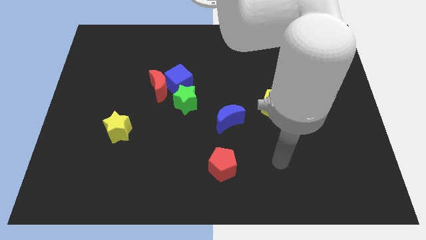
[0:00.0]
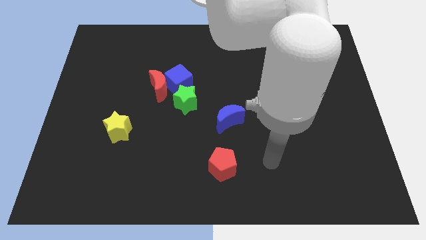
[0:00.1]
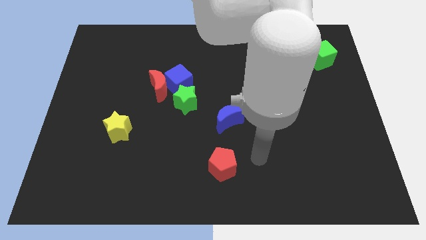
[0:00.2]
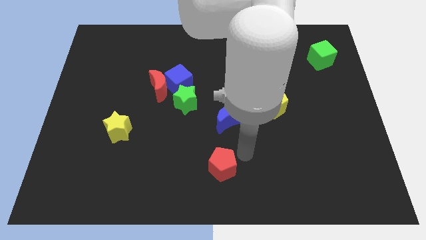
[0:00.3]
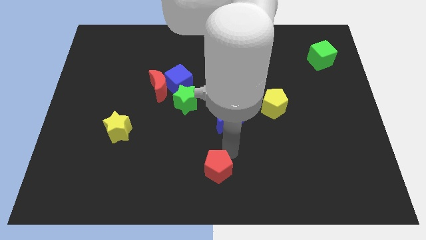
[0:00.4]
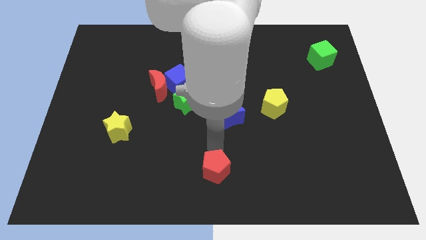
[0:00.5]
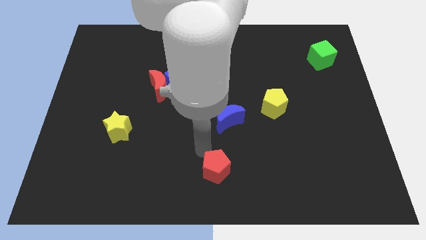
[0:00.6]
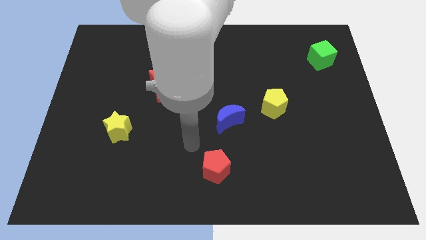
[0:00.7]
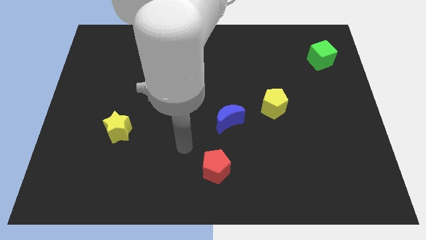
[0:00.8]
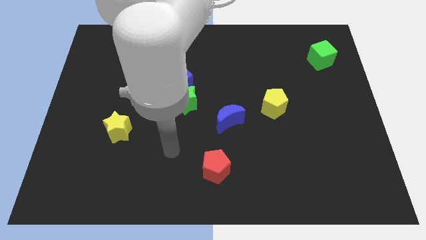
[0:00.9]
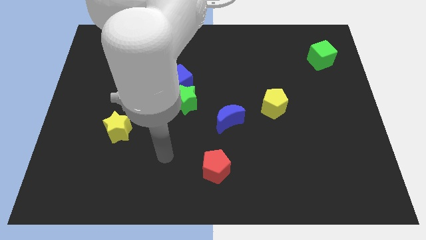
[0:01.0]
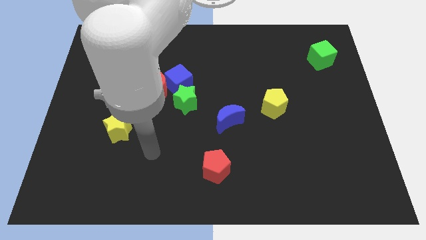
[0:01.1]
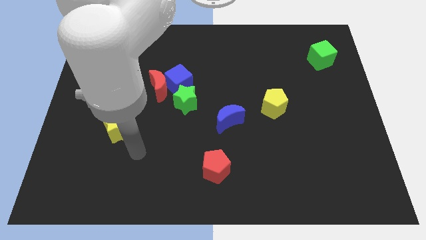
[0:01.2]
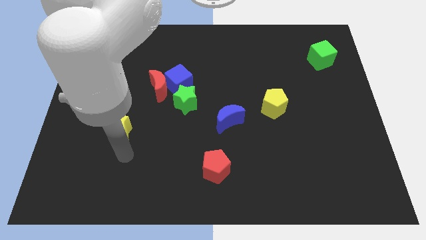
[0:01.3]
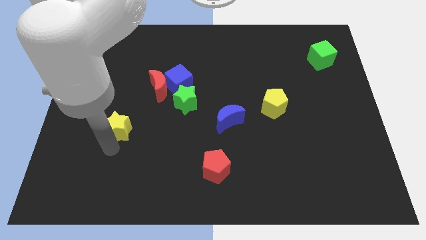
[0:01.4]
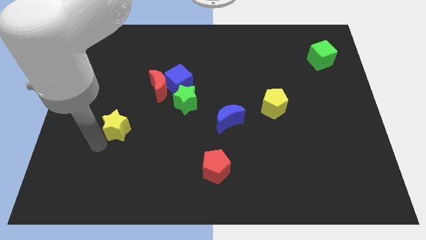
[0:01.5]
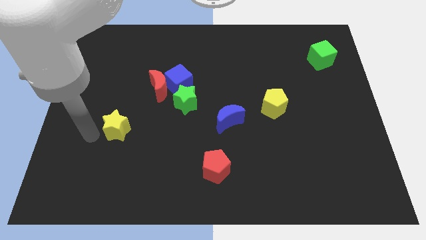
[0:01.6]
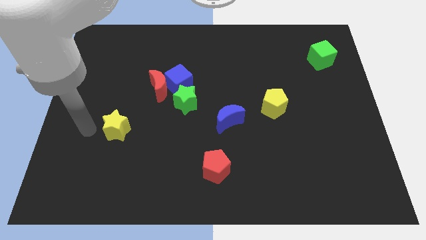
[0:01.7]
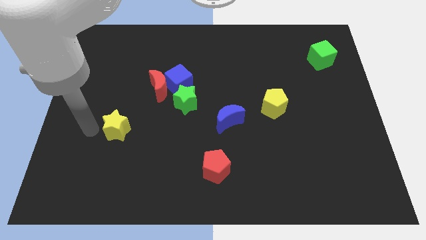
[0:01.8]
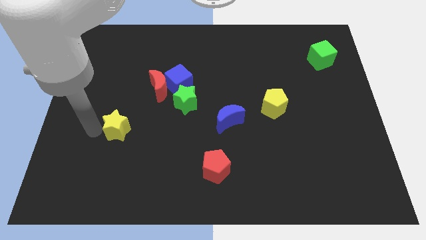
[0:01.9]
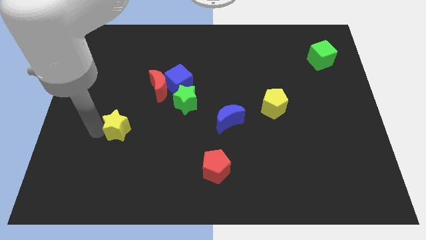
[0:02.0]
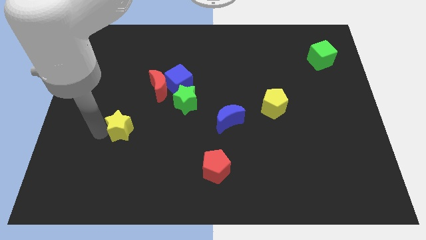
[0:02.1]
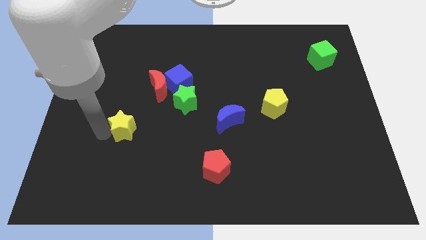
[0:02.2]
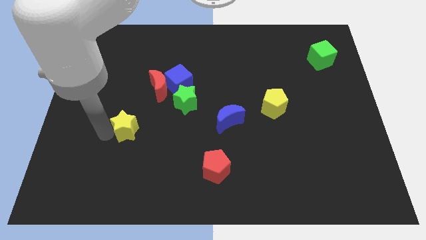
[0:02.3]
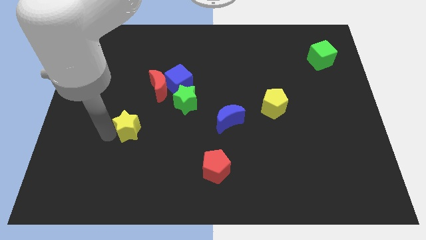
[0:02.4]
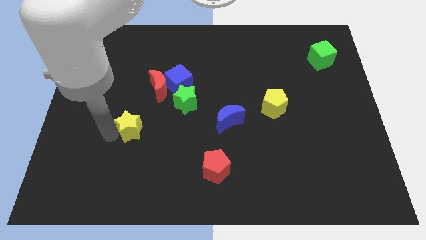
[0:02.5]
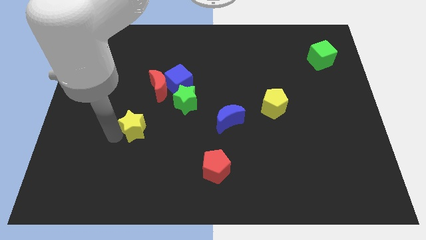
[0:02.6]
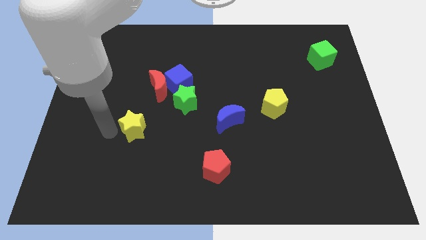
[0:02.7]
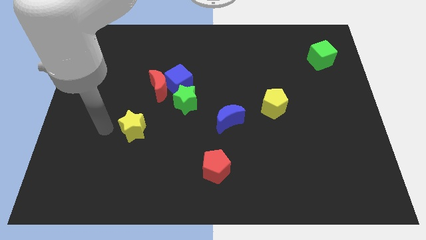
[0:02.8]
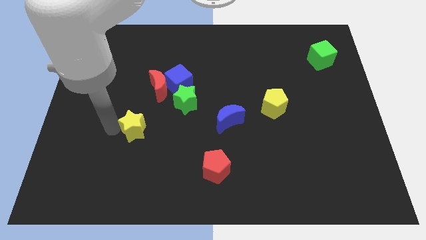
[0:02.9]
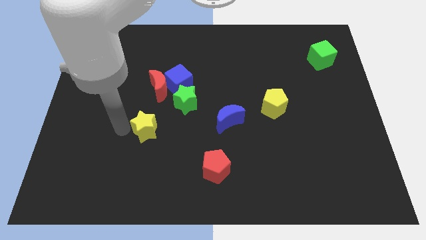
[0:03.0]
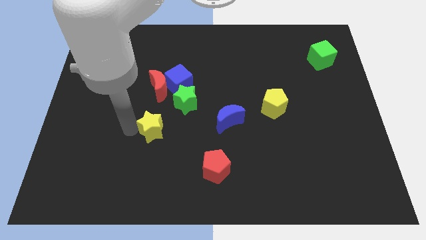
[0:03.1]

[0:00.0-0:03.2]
move the yellow star a bit right

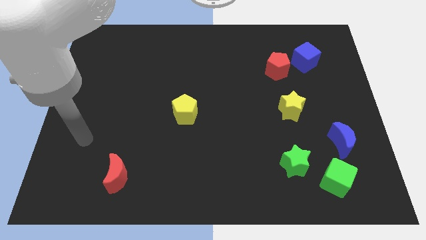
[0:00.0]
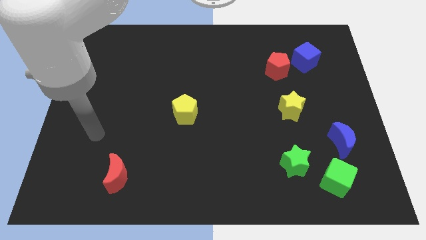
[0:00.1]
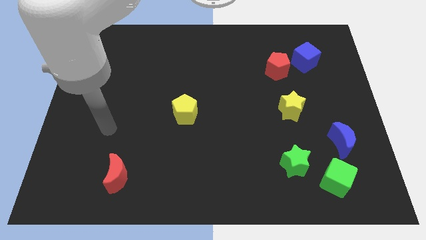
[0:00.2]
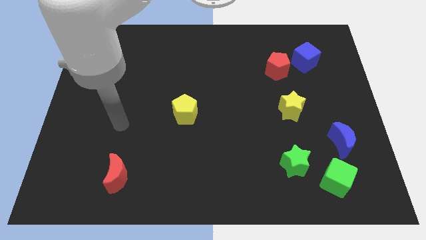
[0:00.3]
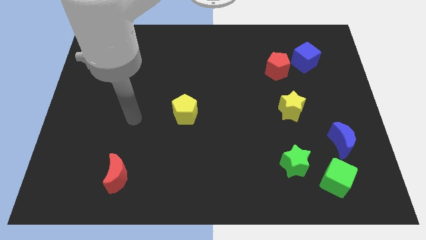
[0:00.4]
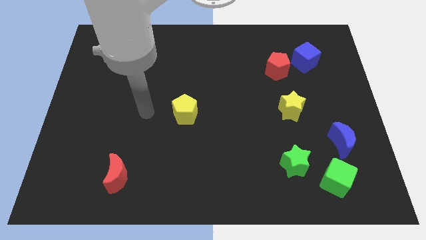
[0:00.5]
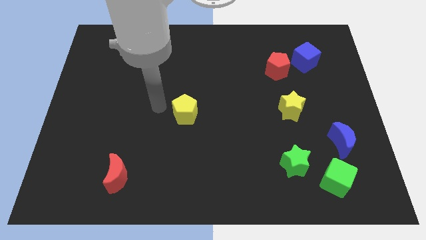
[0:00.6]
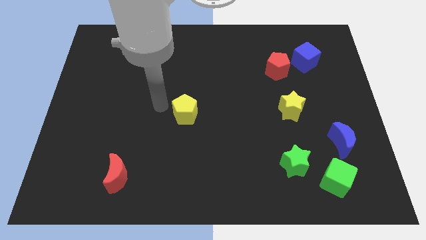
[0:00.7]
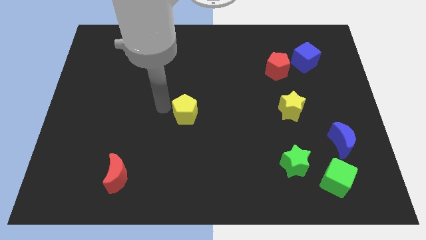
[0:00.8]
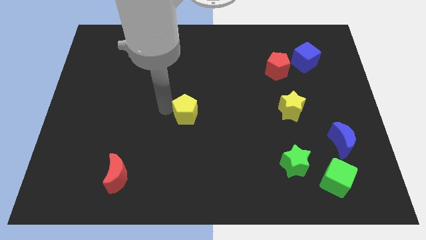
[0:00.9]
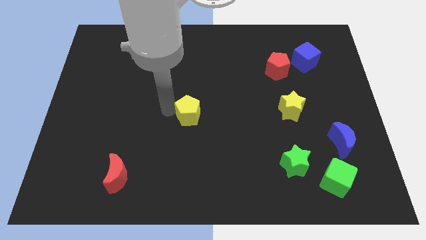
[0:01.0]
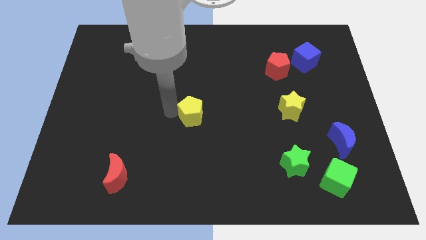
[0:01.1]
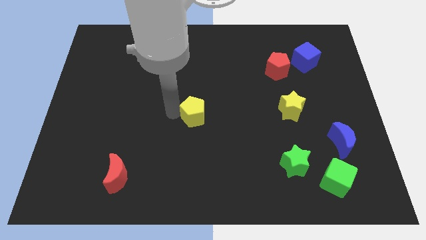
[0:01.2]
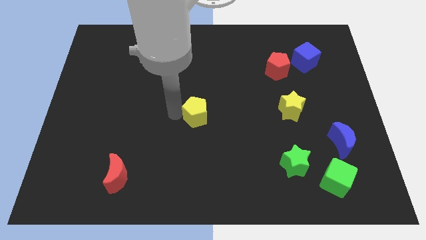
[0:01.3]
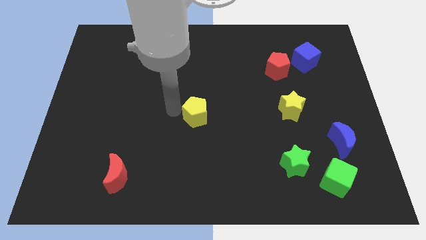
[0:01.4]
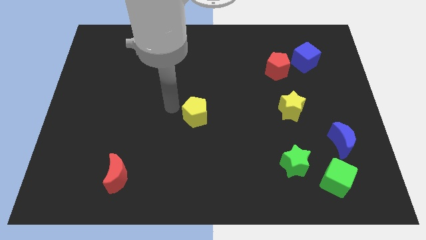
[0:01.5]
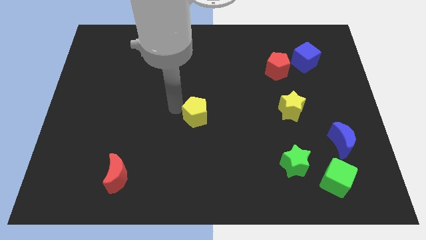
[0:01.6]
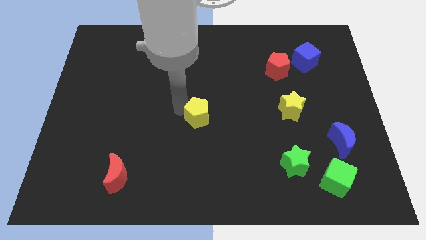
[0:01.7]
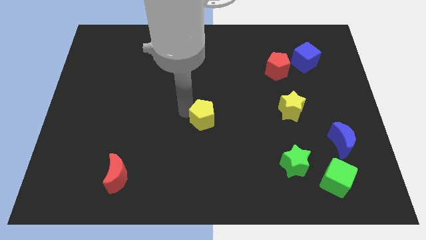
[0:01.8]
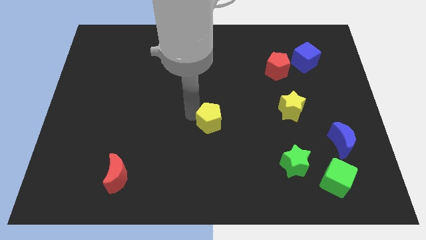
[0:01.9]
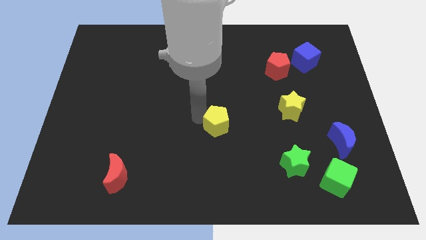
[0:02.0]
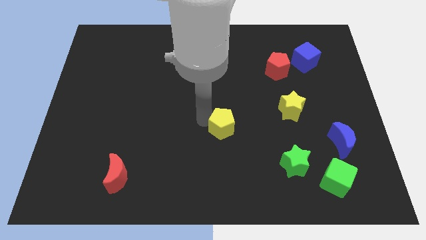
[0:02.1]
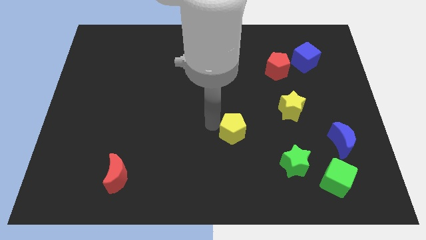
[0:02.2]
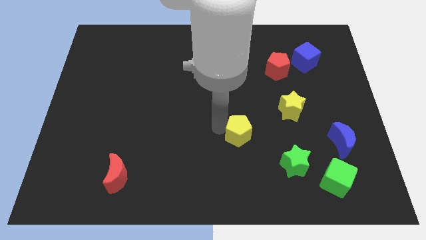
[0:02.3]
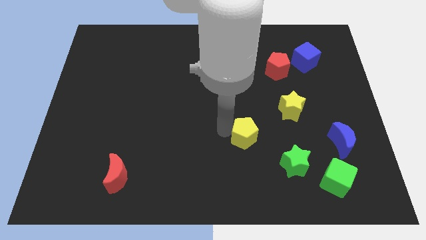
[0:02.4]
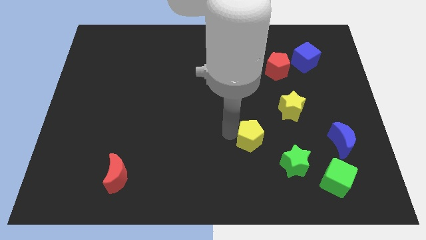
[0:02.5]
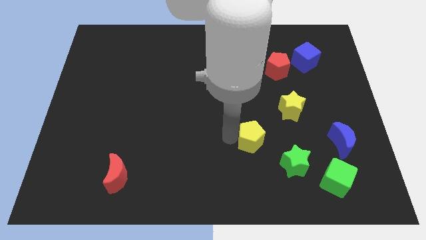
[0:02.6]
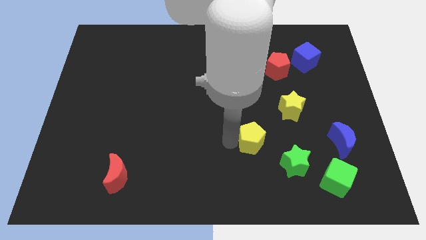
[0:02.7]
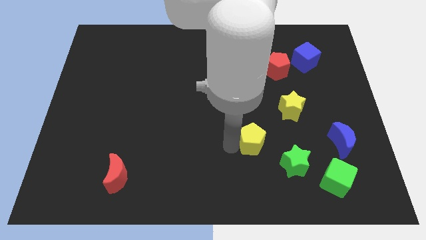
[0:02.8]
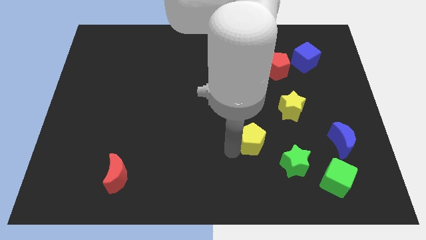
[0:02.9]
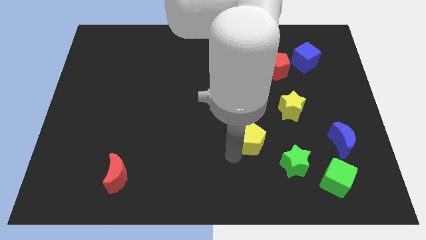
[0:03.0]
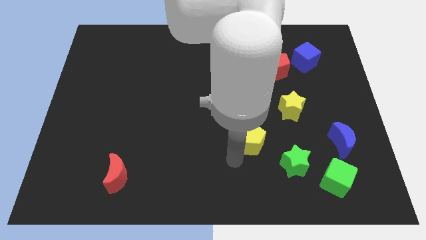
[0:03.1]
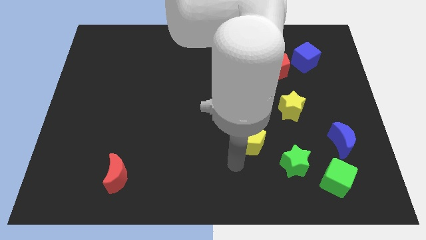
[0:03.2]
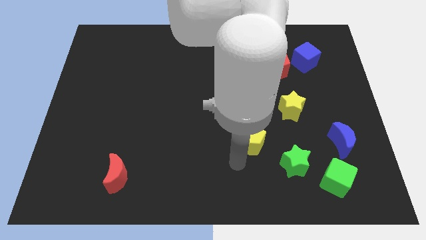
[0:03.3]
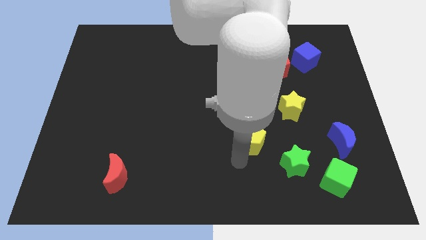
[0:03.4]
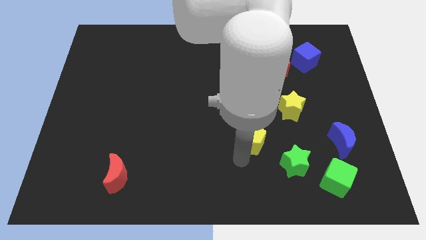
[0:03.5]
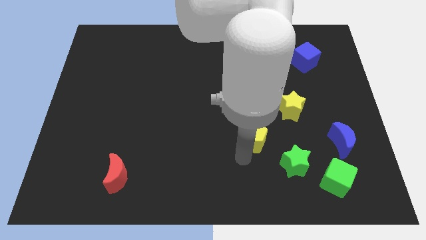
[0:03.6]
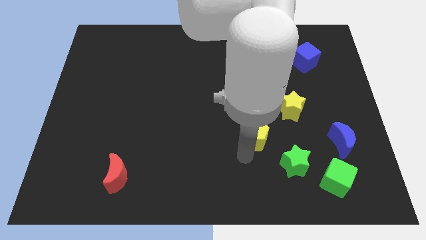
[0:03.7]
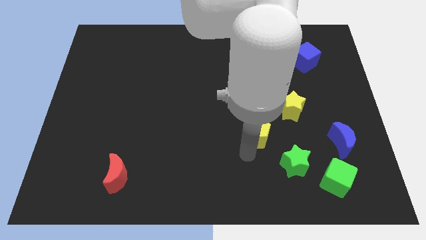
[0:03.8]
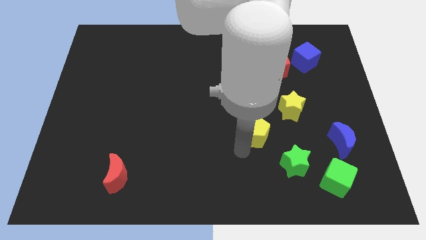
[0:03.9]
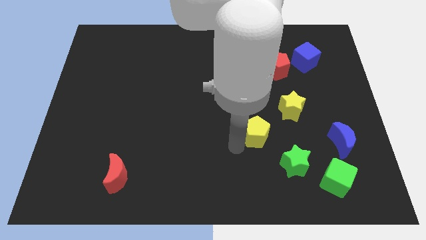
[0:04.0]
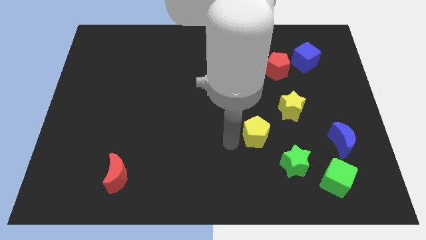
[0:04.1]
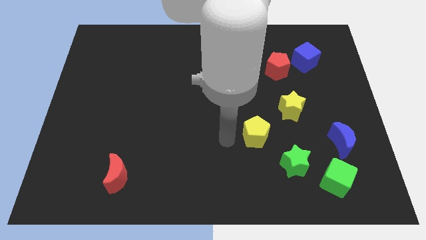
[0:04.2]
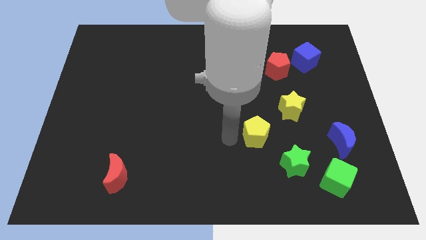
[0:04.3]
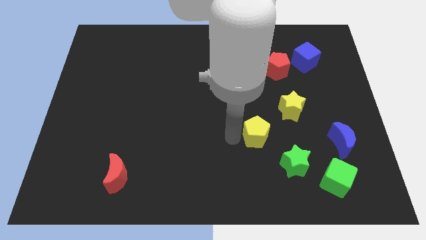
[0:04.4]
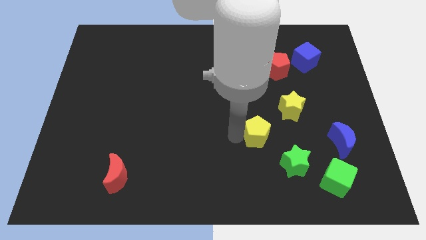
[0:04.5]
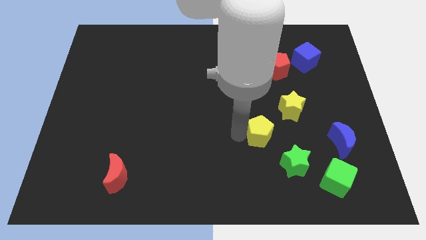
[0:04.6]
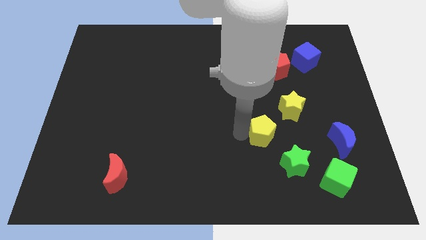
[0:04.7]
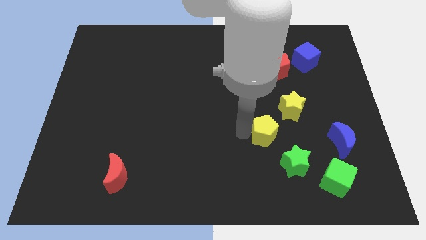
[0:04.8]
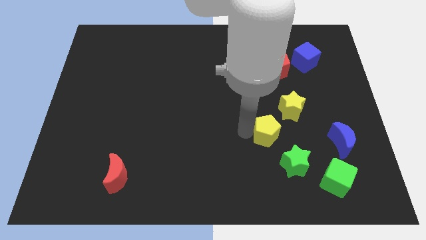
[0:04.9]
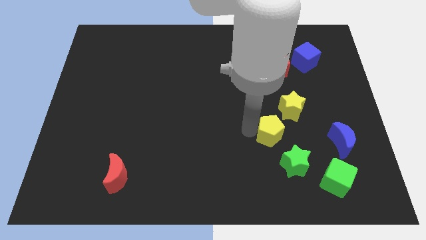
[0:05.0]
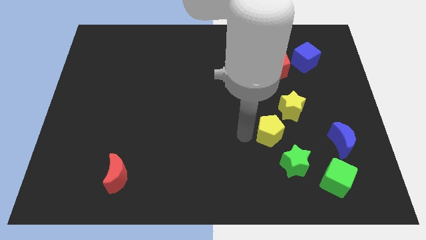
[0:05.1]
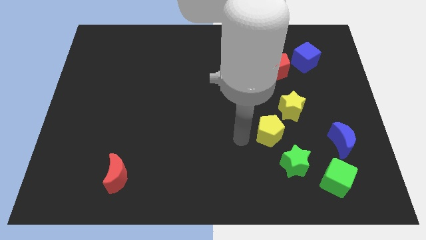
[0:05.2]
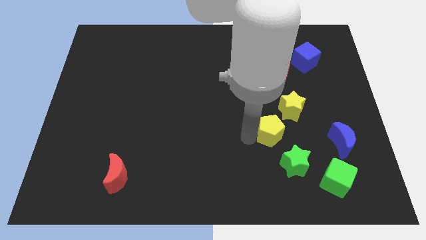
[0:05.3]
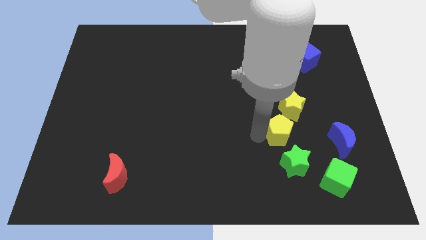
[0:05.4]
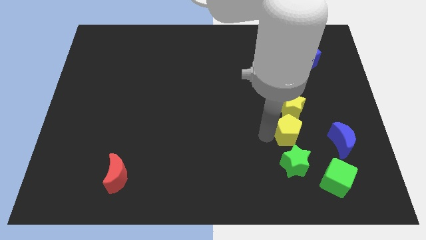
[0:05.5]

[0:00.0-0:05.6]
slide the yellow pentagon right
